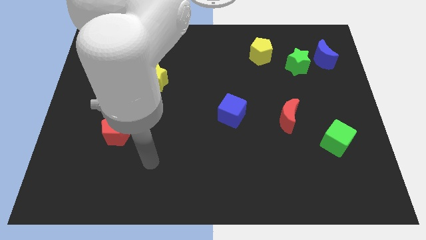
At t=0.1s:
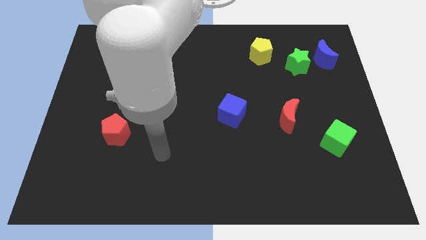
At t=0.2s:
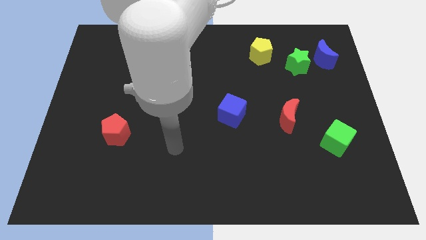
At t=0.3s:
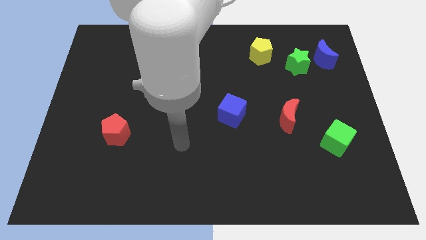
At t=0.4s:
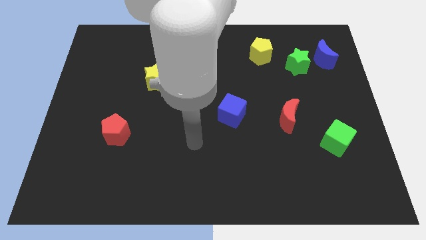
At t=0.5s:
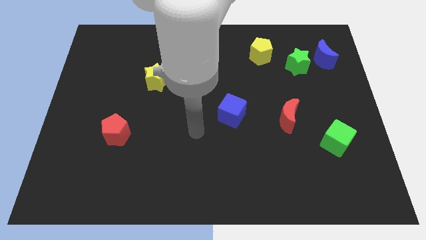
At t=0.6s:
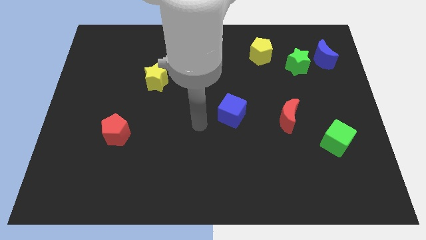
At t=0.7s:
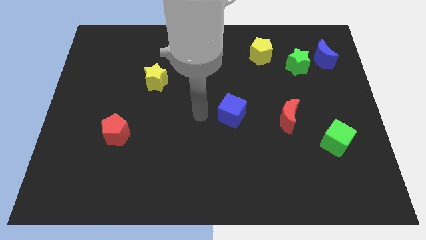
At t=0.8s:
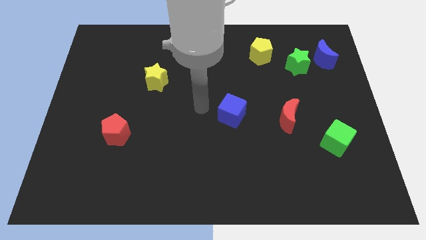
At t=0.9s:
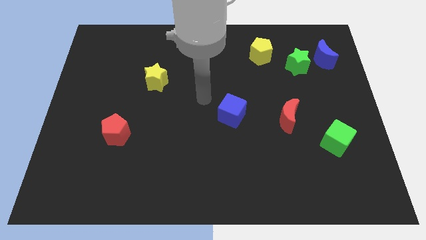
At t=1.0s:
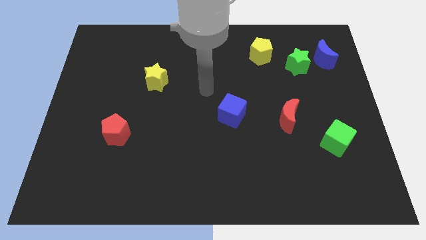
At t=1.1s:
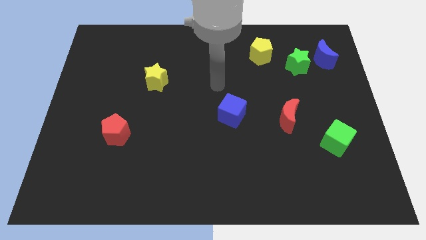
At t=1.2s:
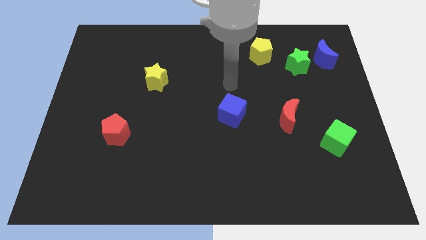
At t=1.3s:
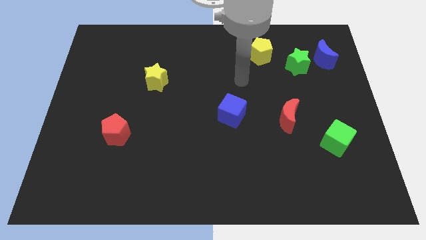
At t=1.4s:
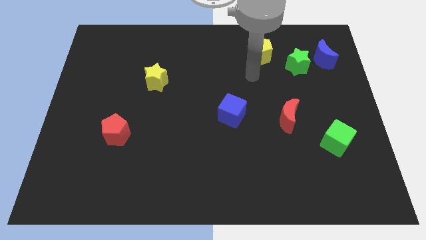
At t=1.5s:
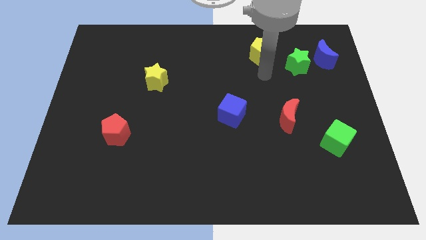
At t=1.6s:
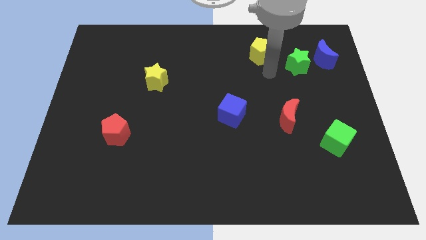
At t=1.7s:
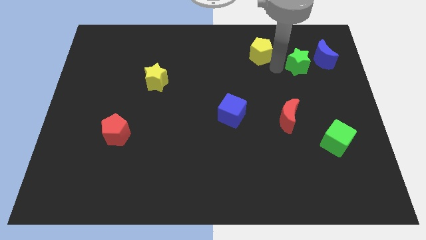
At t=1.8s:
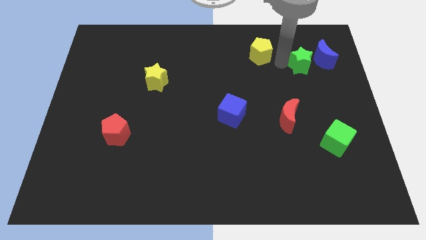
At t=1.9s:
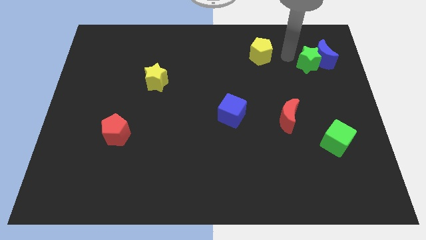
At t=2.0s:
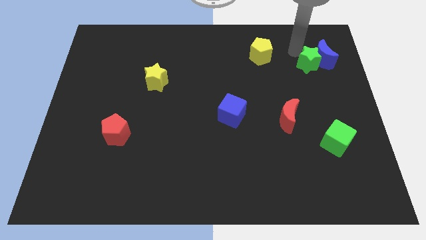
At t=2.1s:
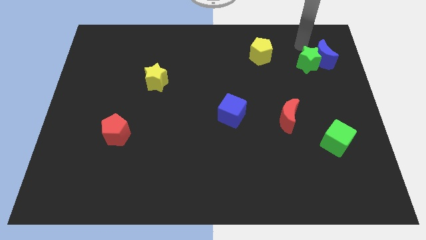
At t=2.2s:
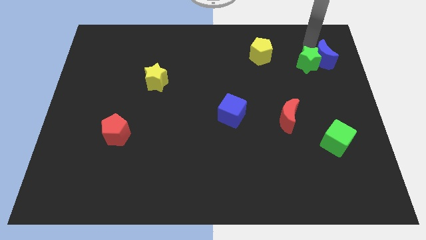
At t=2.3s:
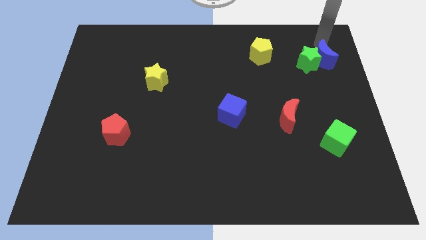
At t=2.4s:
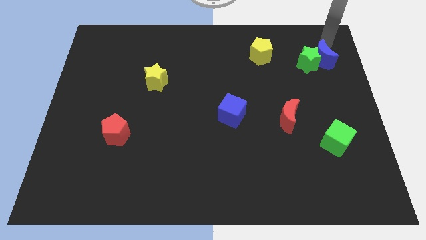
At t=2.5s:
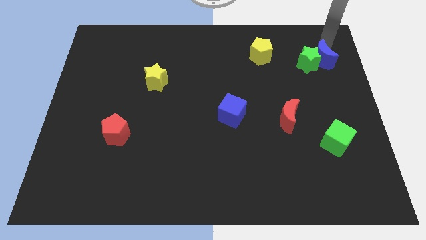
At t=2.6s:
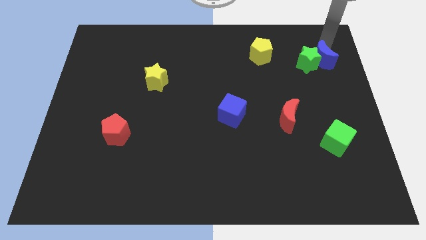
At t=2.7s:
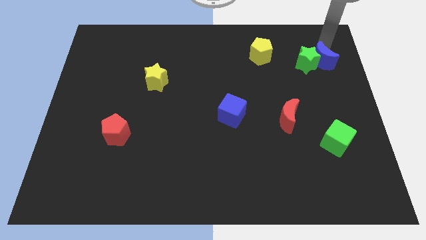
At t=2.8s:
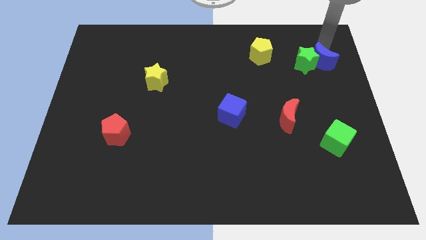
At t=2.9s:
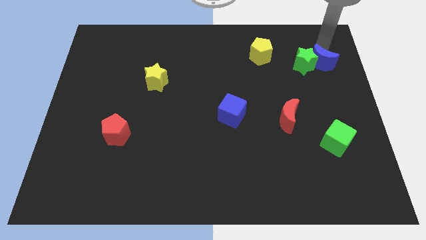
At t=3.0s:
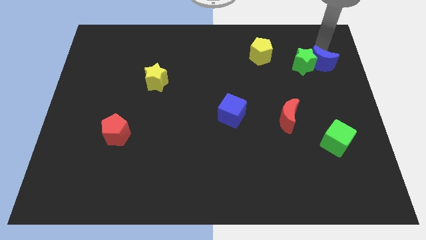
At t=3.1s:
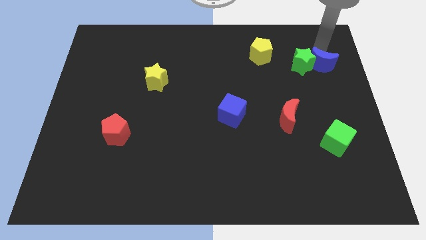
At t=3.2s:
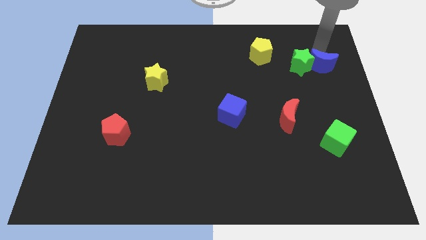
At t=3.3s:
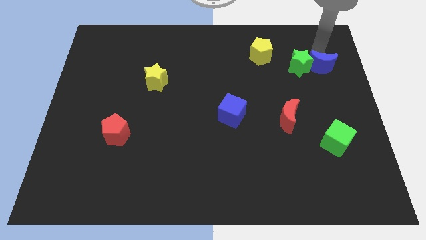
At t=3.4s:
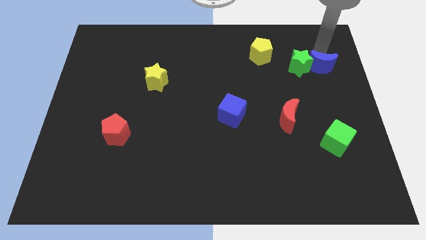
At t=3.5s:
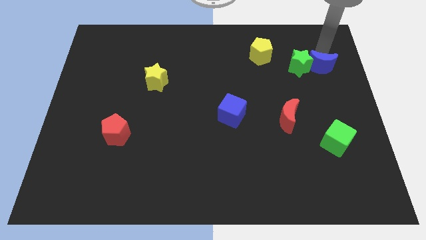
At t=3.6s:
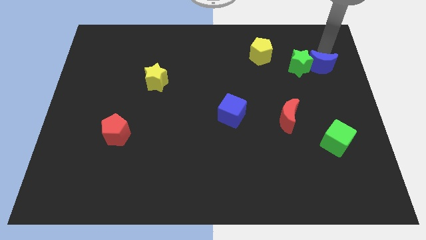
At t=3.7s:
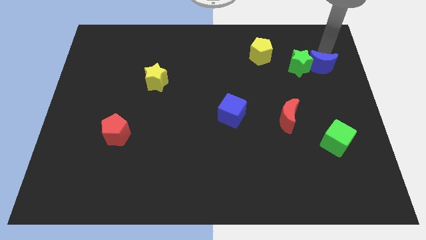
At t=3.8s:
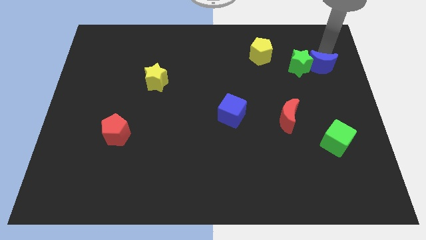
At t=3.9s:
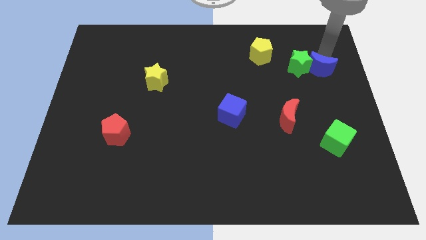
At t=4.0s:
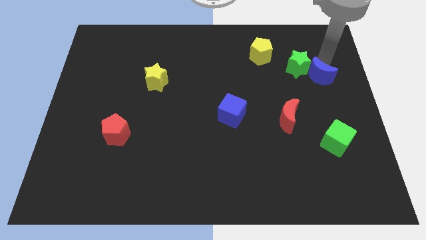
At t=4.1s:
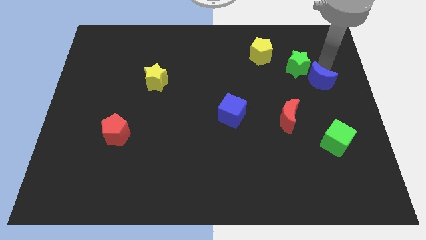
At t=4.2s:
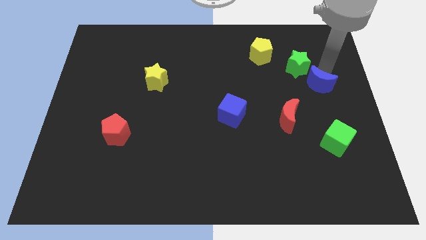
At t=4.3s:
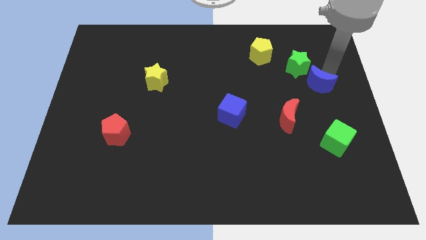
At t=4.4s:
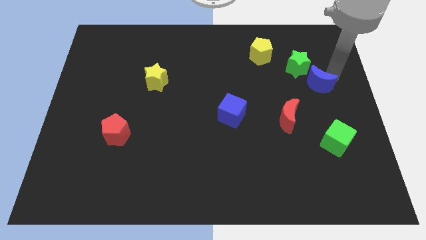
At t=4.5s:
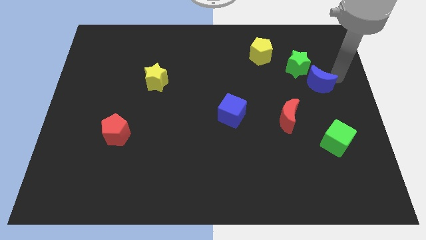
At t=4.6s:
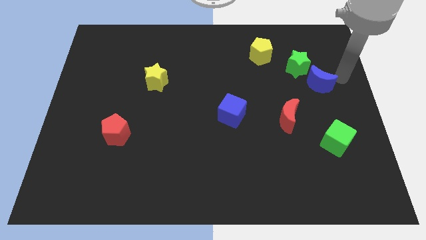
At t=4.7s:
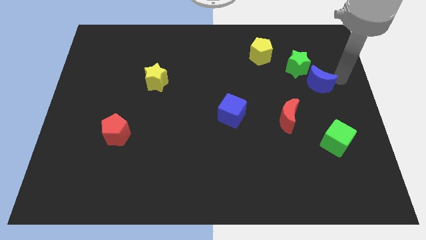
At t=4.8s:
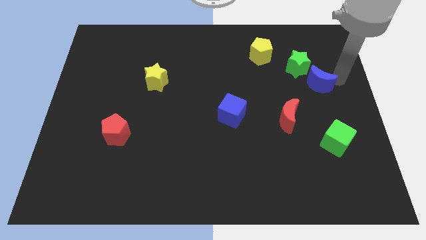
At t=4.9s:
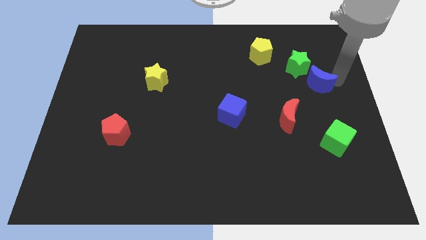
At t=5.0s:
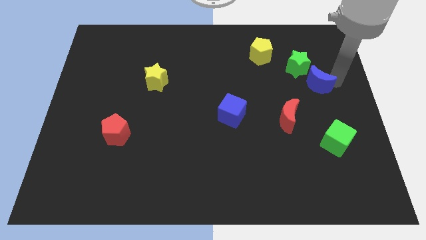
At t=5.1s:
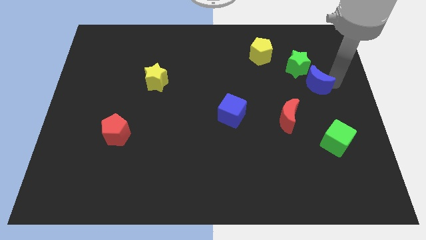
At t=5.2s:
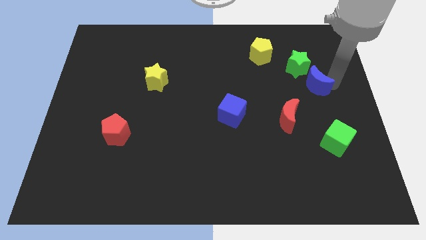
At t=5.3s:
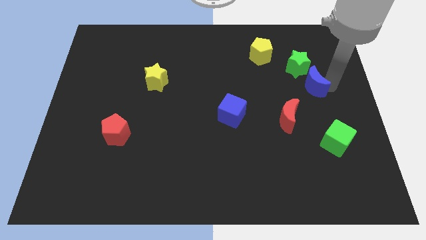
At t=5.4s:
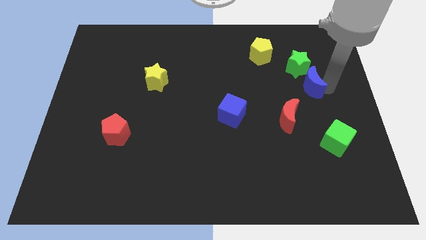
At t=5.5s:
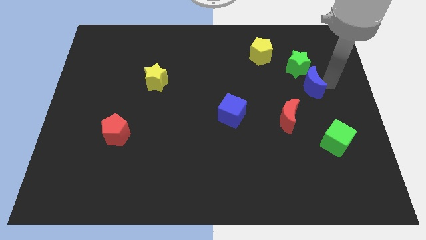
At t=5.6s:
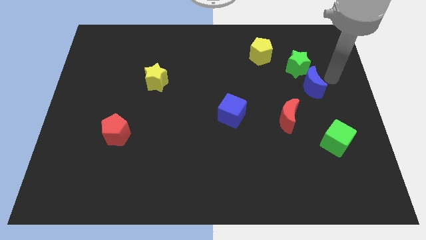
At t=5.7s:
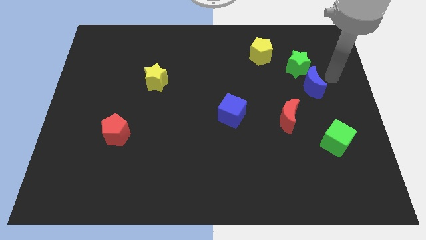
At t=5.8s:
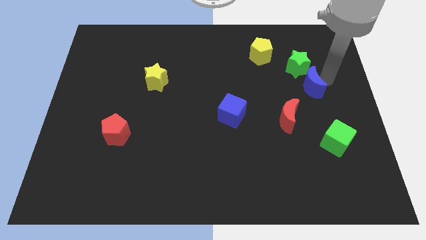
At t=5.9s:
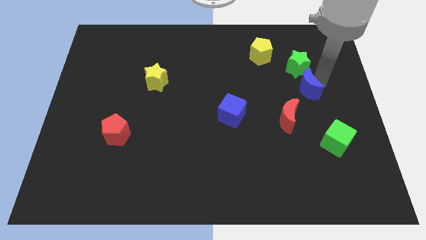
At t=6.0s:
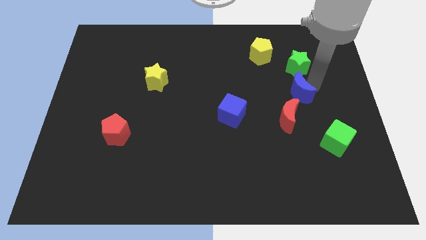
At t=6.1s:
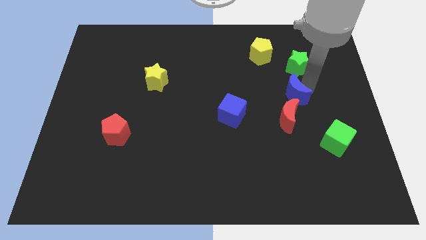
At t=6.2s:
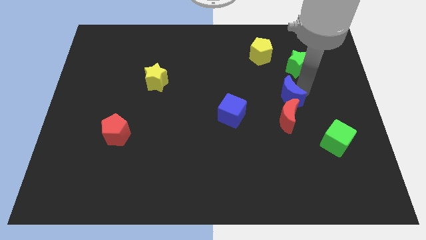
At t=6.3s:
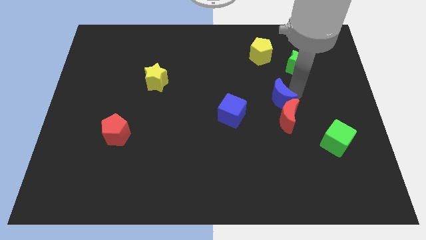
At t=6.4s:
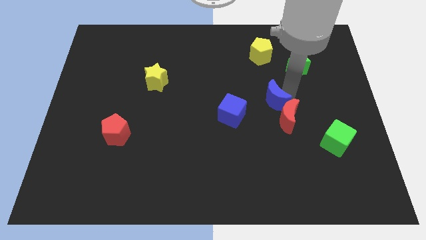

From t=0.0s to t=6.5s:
slide the blue moon down and to the left

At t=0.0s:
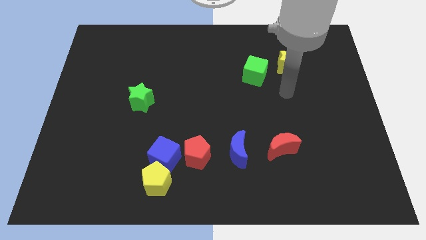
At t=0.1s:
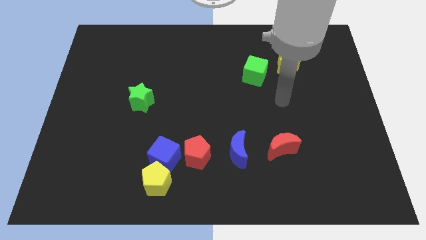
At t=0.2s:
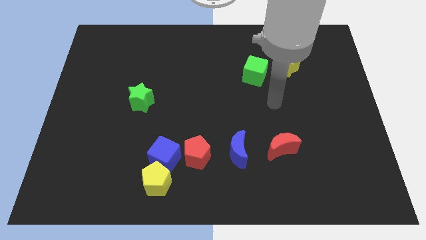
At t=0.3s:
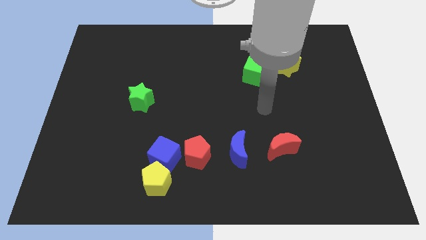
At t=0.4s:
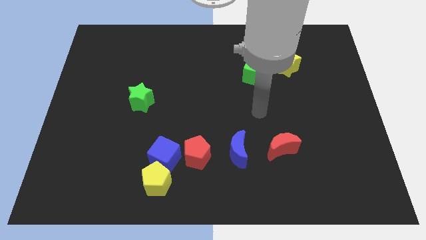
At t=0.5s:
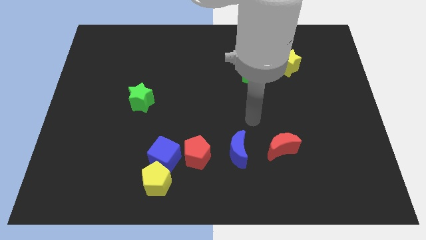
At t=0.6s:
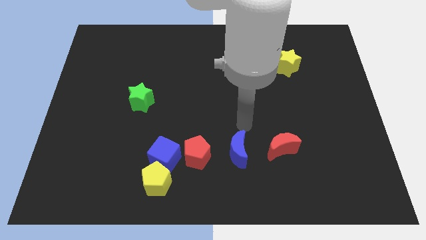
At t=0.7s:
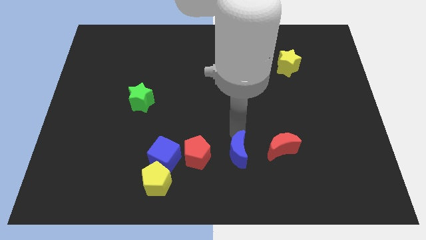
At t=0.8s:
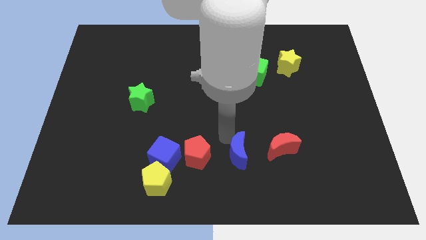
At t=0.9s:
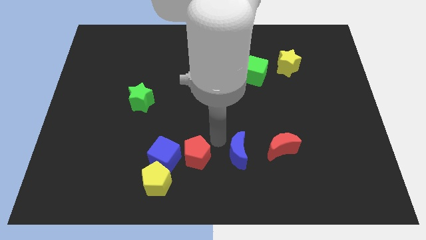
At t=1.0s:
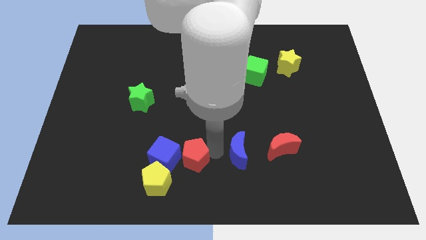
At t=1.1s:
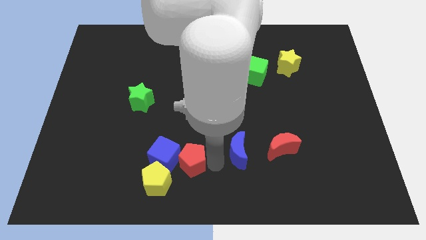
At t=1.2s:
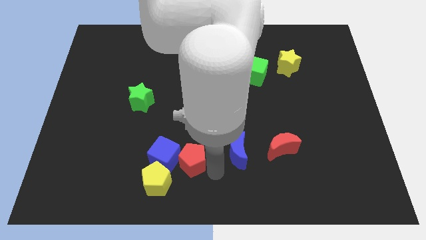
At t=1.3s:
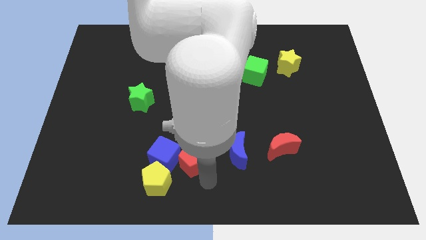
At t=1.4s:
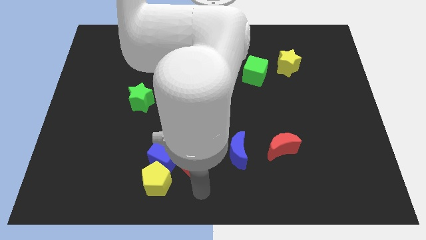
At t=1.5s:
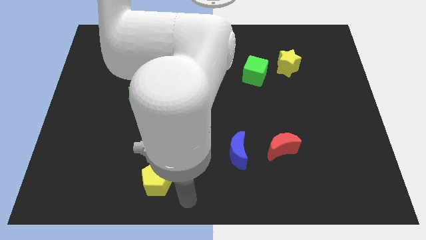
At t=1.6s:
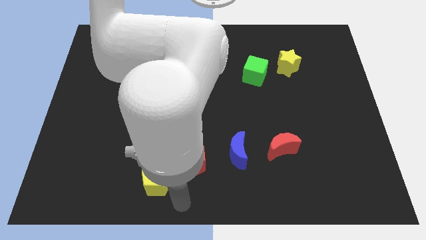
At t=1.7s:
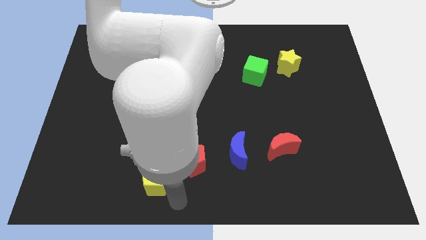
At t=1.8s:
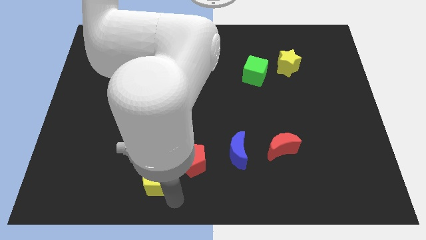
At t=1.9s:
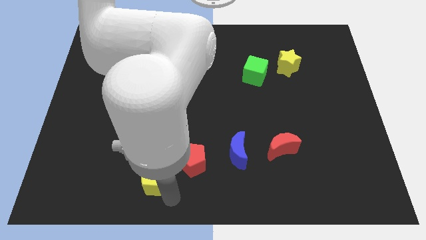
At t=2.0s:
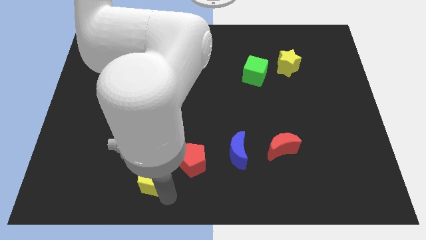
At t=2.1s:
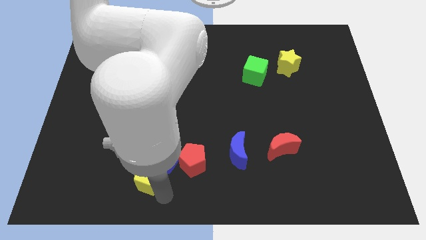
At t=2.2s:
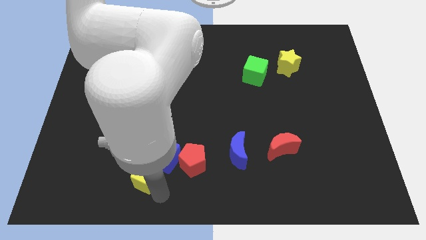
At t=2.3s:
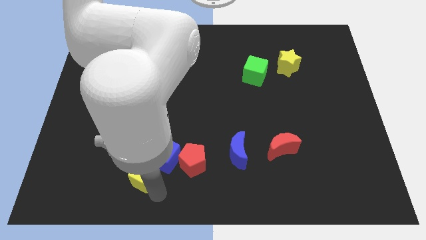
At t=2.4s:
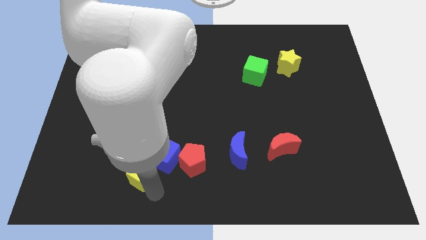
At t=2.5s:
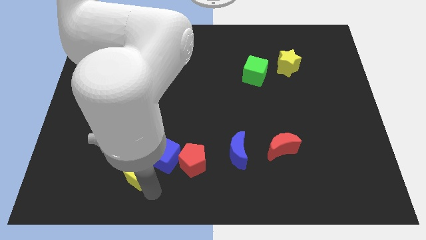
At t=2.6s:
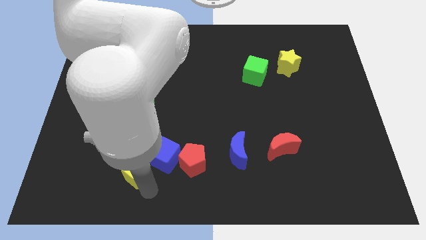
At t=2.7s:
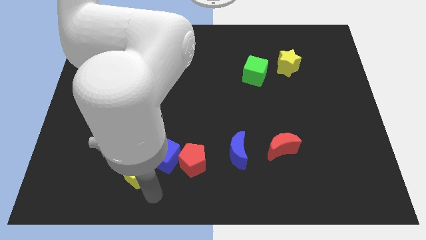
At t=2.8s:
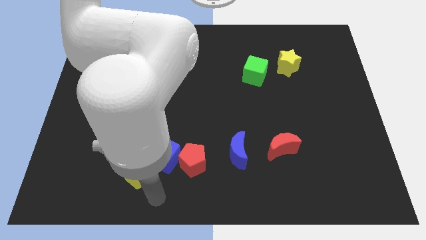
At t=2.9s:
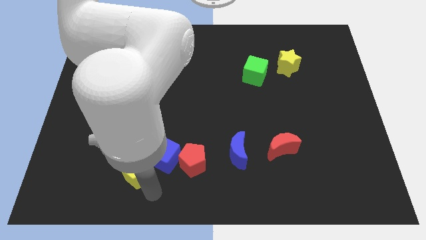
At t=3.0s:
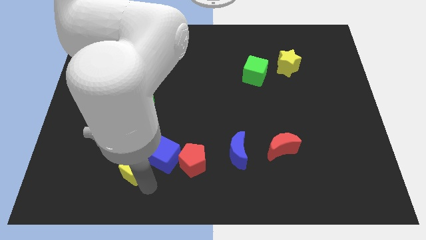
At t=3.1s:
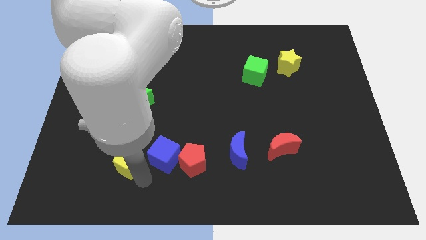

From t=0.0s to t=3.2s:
push the yellow pentagon a little bit diagonally upwards and left
